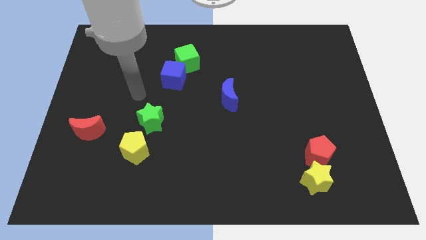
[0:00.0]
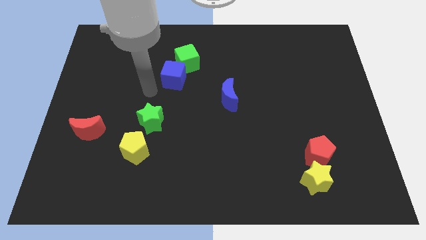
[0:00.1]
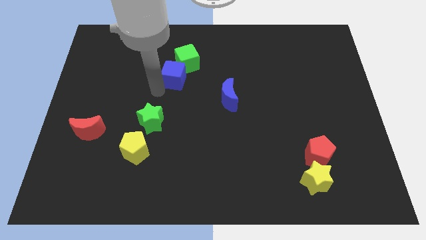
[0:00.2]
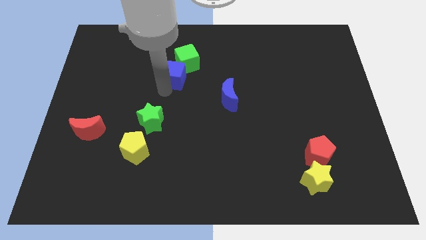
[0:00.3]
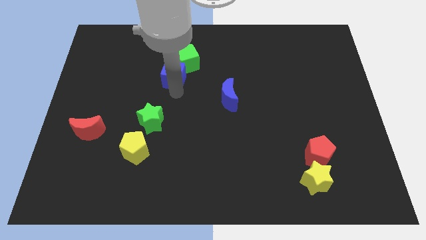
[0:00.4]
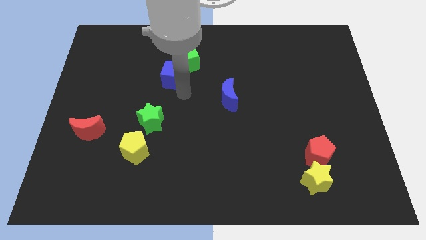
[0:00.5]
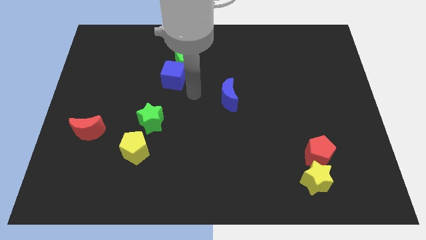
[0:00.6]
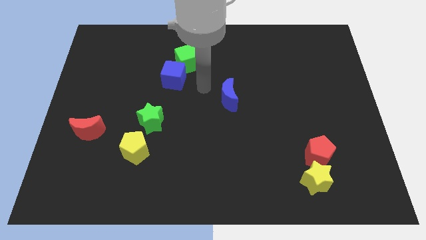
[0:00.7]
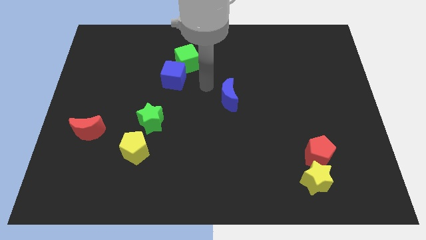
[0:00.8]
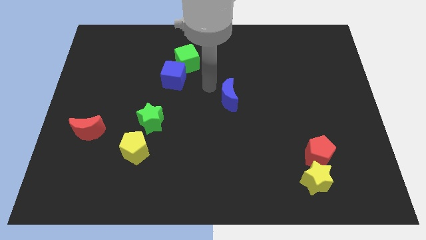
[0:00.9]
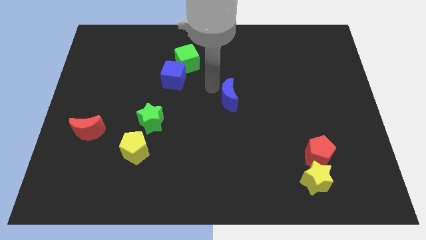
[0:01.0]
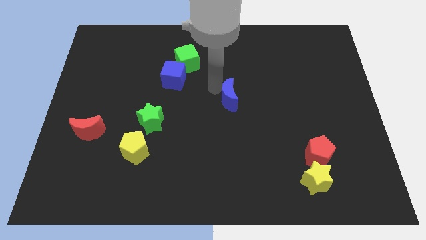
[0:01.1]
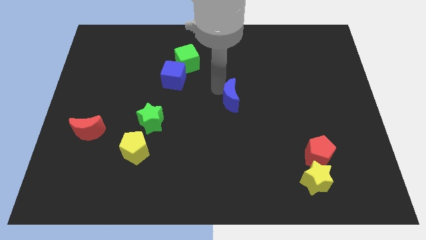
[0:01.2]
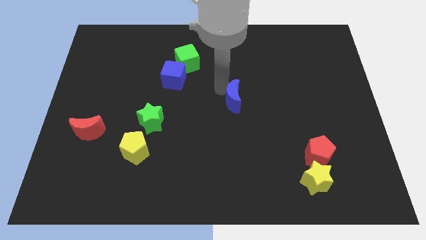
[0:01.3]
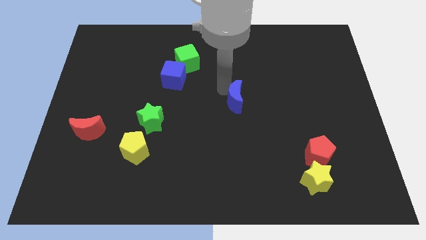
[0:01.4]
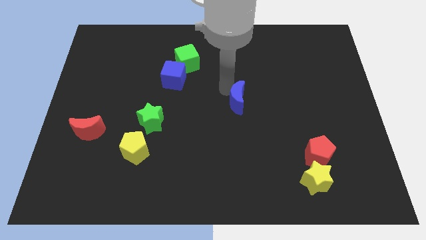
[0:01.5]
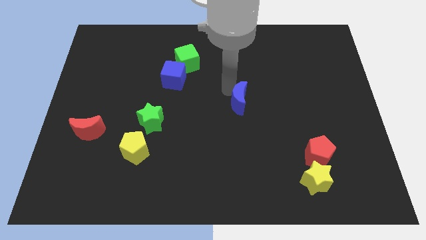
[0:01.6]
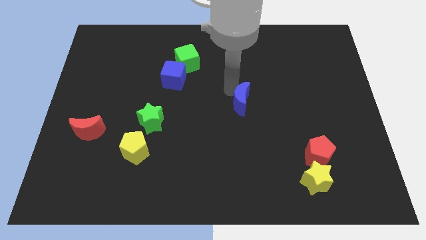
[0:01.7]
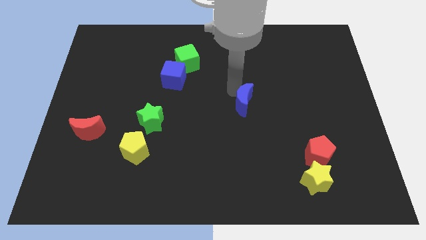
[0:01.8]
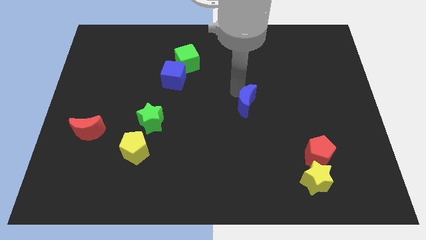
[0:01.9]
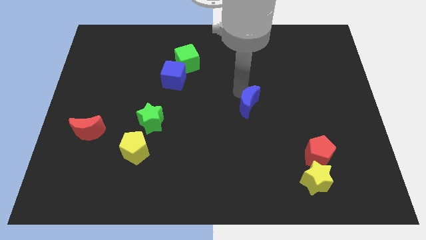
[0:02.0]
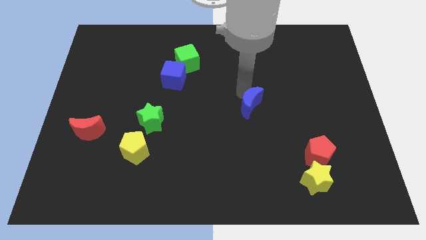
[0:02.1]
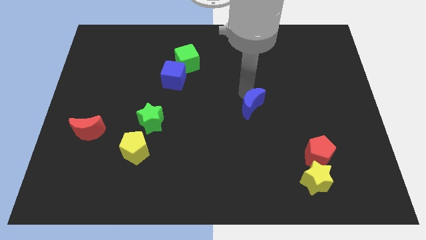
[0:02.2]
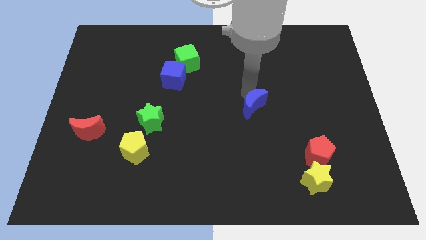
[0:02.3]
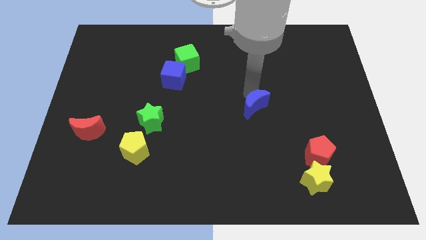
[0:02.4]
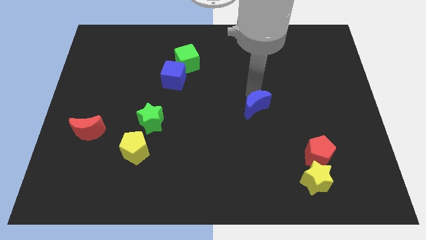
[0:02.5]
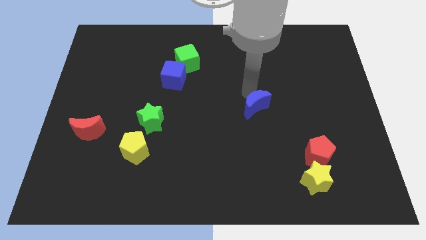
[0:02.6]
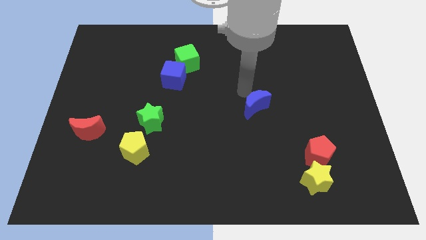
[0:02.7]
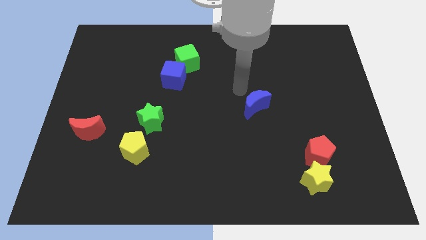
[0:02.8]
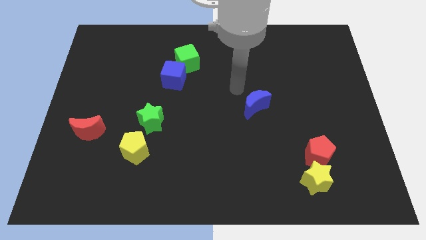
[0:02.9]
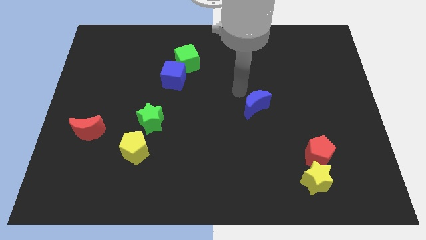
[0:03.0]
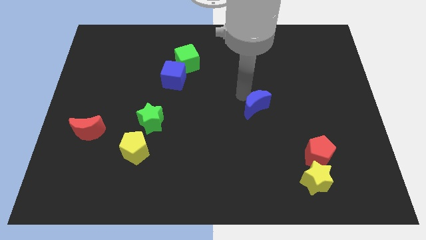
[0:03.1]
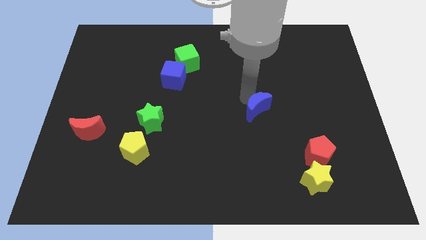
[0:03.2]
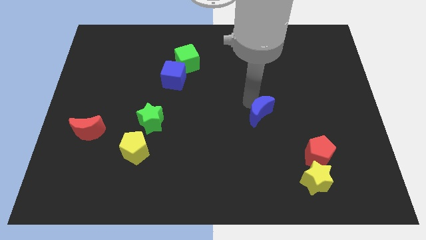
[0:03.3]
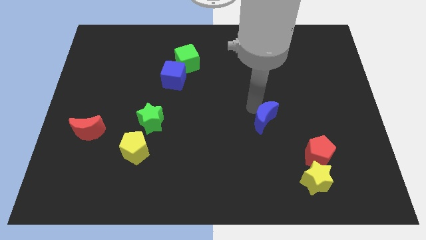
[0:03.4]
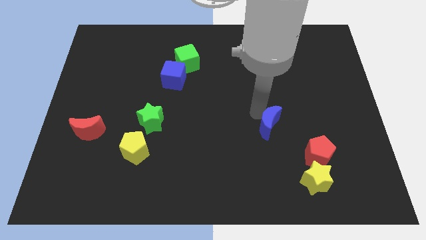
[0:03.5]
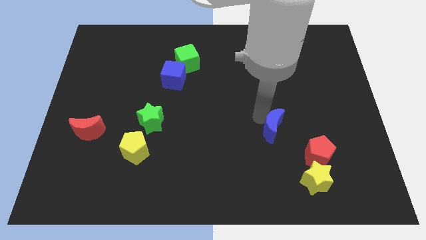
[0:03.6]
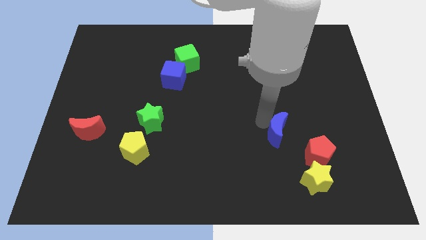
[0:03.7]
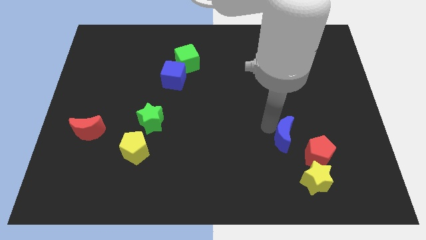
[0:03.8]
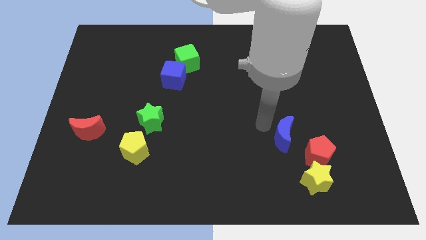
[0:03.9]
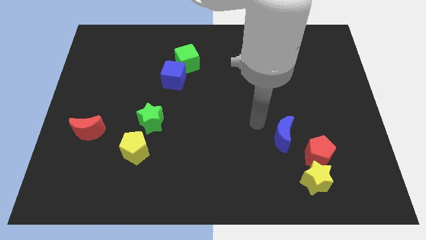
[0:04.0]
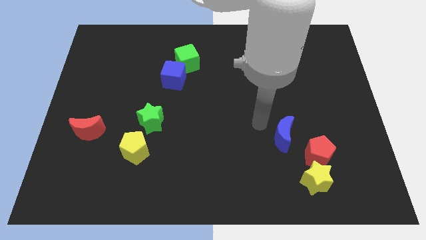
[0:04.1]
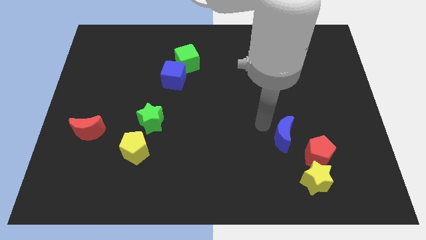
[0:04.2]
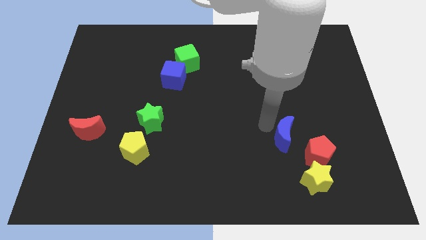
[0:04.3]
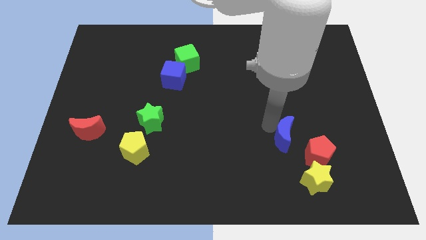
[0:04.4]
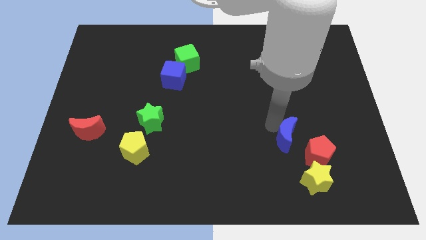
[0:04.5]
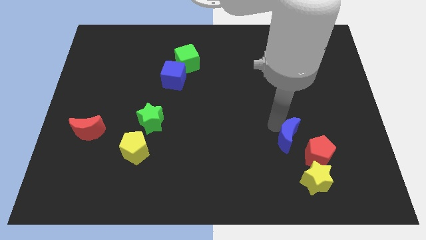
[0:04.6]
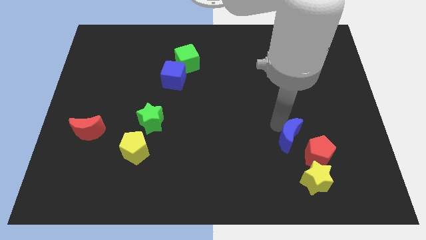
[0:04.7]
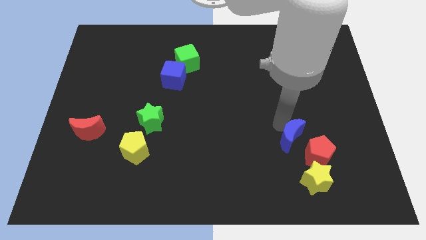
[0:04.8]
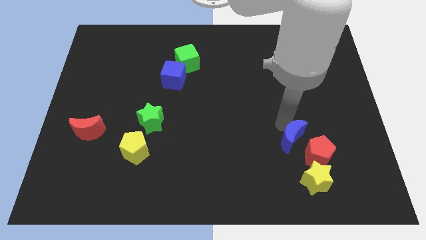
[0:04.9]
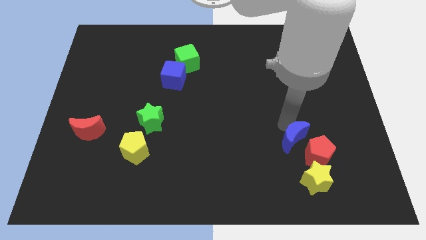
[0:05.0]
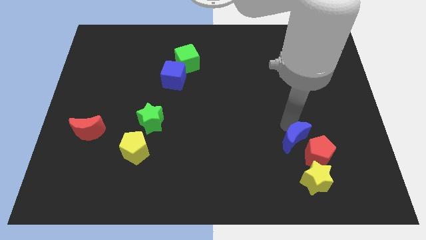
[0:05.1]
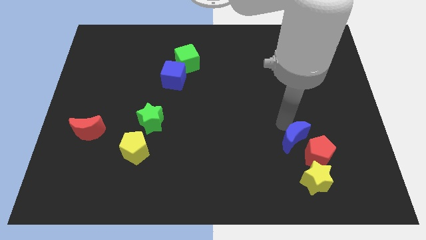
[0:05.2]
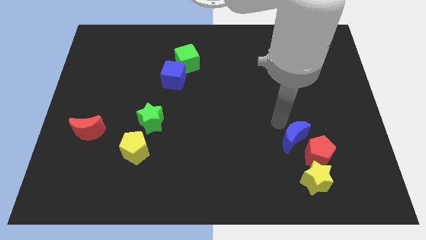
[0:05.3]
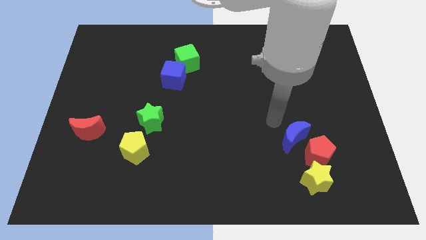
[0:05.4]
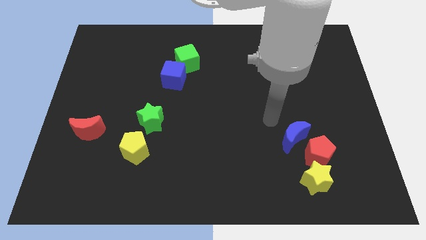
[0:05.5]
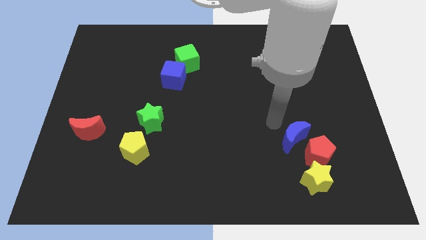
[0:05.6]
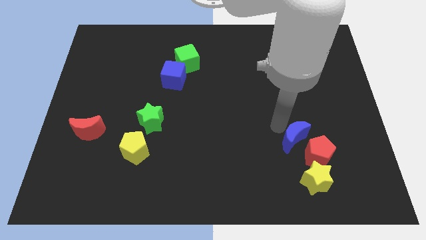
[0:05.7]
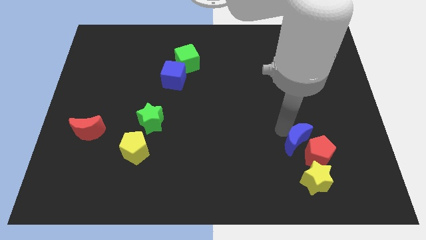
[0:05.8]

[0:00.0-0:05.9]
put the blue moon towards the red pentagon

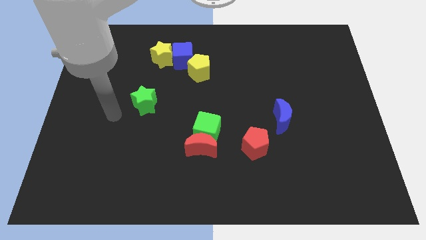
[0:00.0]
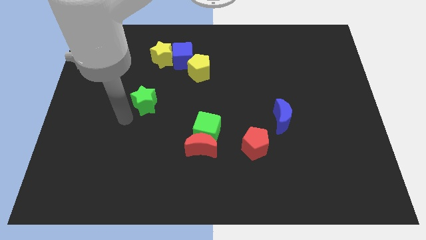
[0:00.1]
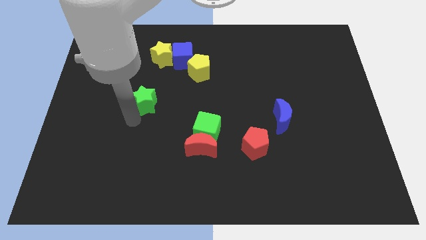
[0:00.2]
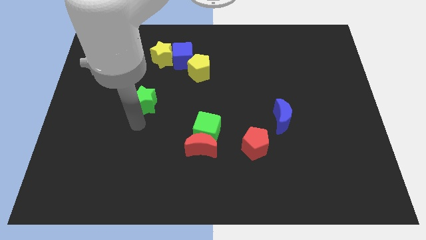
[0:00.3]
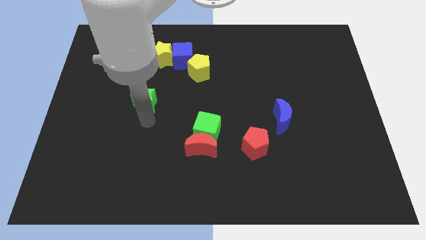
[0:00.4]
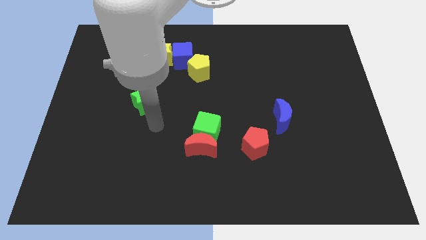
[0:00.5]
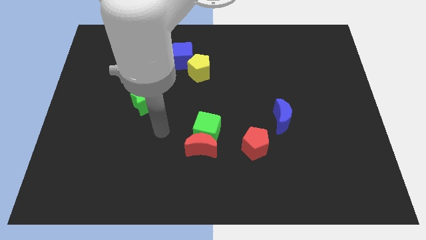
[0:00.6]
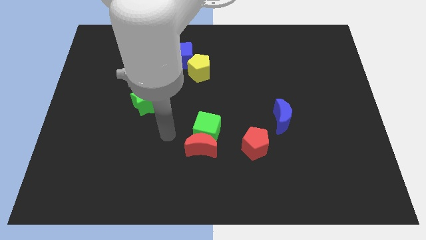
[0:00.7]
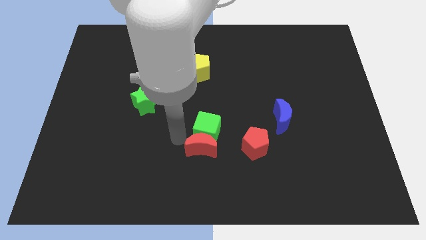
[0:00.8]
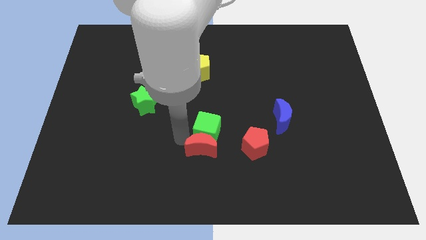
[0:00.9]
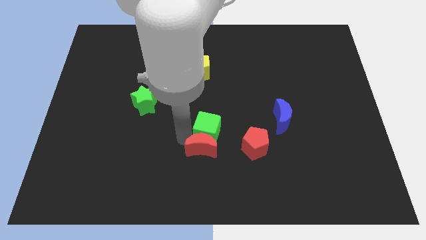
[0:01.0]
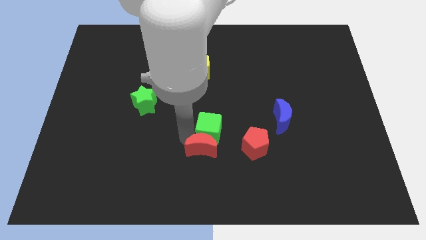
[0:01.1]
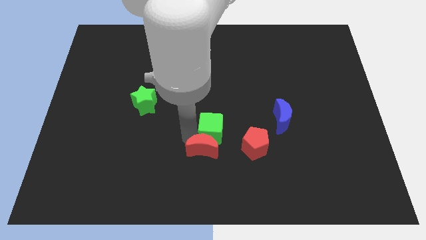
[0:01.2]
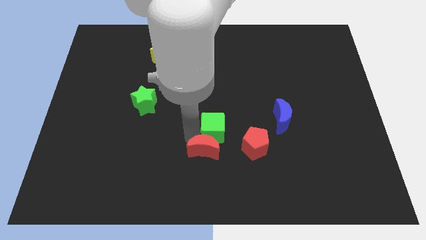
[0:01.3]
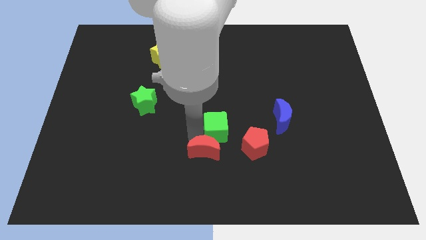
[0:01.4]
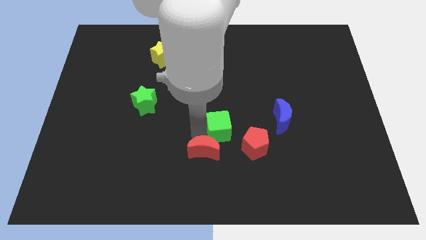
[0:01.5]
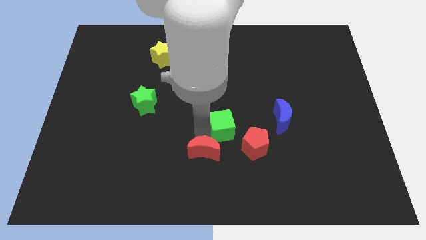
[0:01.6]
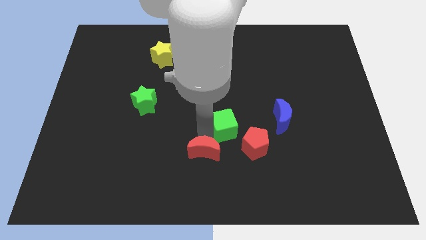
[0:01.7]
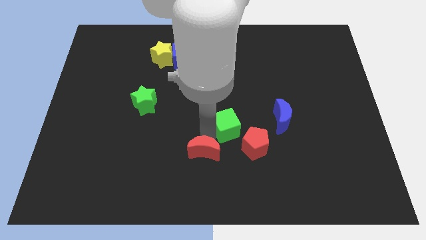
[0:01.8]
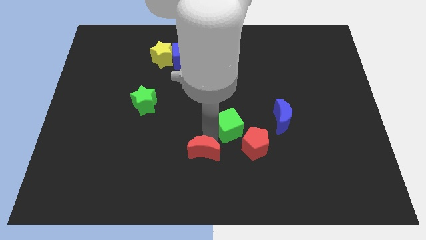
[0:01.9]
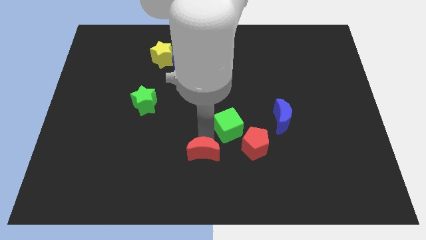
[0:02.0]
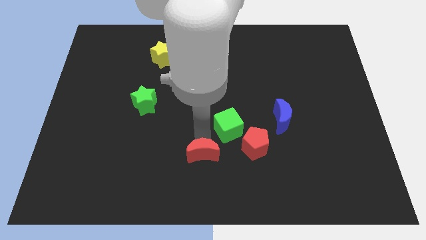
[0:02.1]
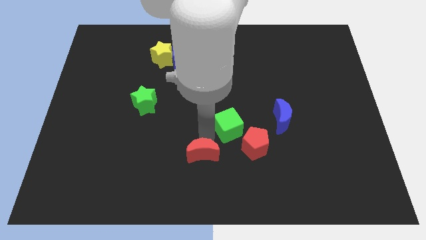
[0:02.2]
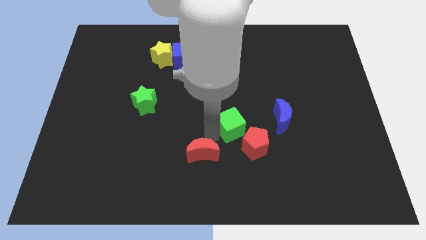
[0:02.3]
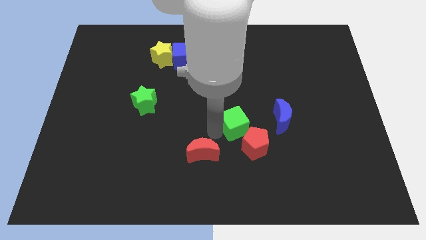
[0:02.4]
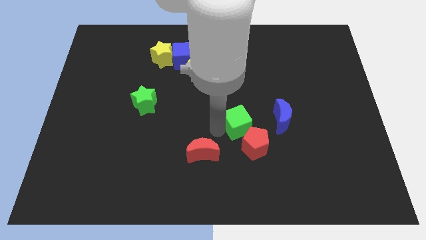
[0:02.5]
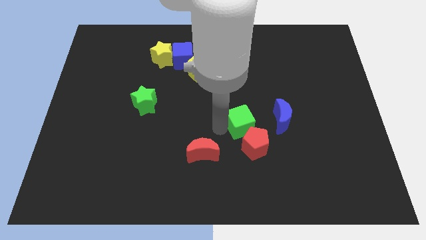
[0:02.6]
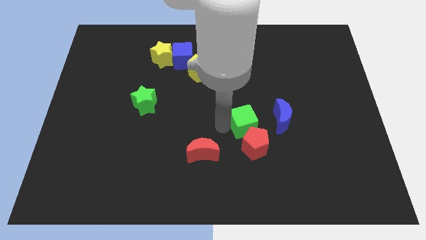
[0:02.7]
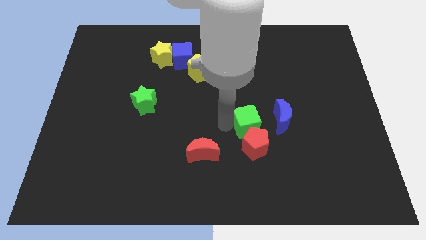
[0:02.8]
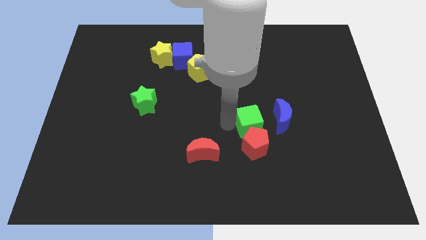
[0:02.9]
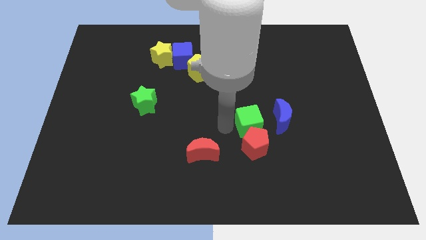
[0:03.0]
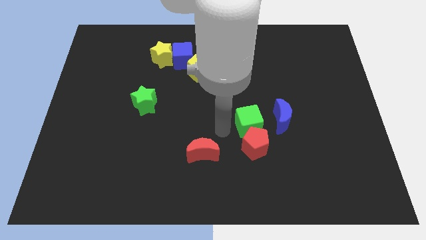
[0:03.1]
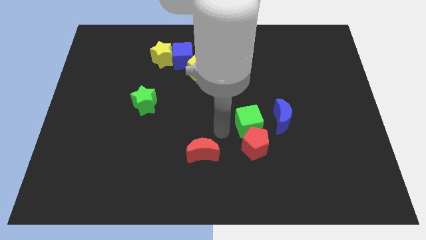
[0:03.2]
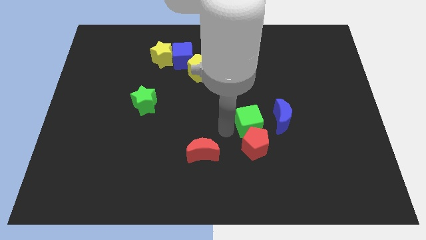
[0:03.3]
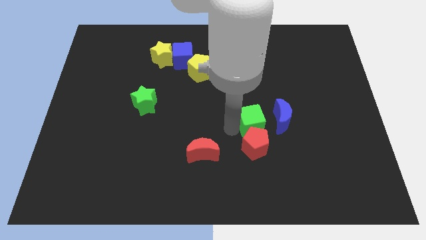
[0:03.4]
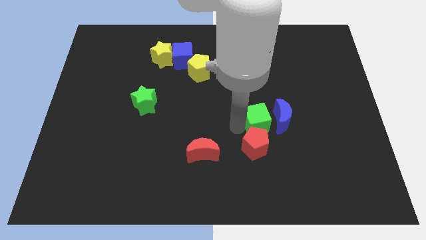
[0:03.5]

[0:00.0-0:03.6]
push the green cube close to the blue moon
